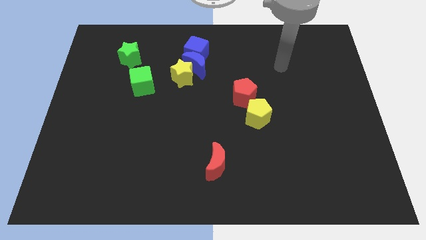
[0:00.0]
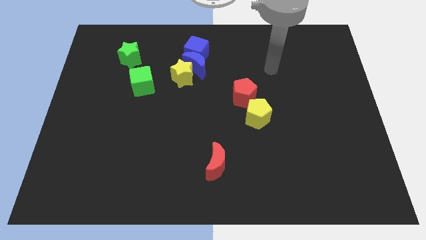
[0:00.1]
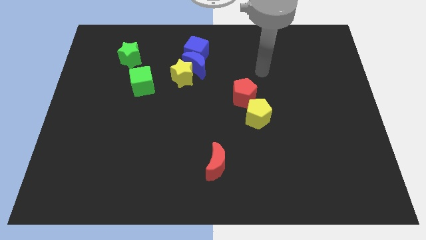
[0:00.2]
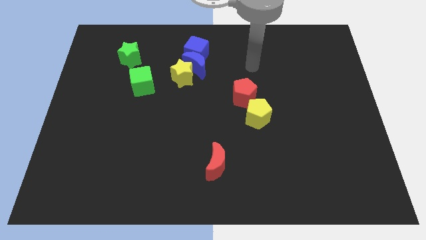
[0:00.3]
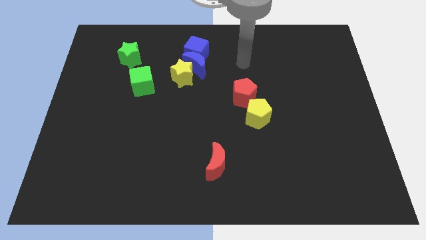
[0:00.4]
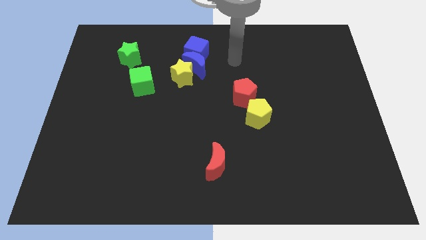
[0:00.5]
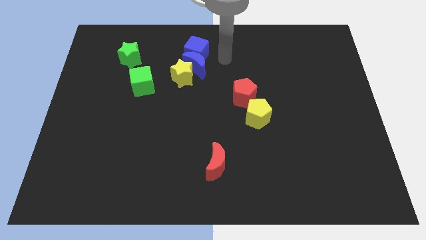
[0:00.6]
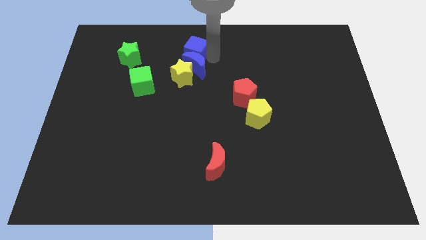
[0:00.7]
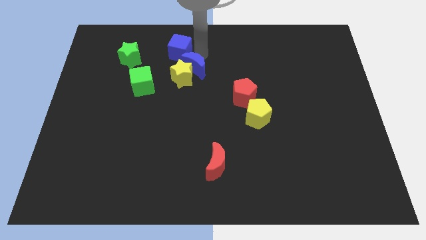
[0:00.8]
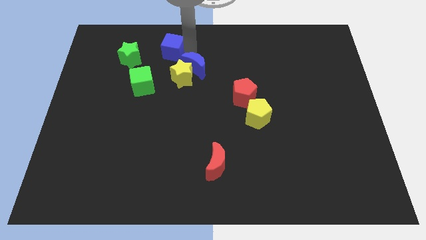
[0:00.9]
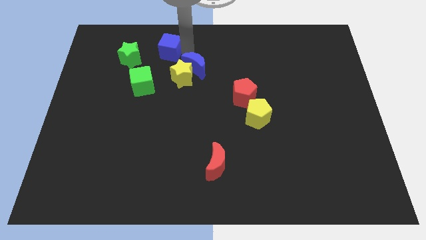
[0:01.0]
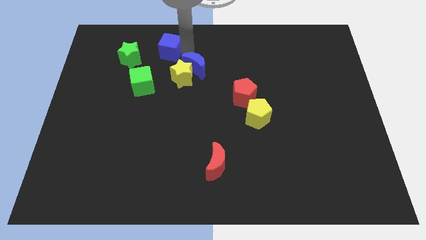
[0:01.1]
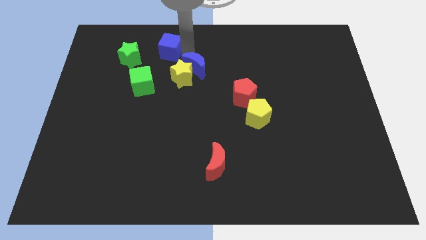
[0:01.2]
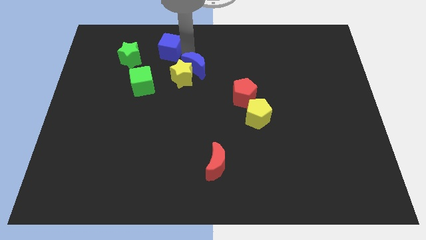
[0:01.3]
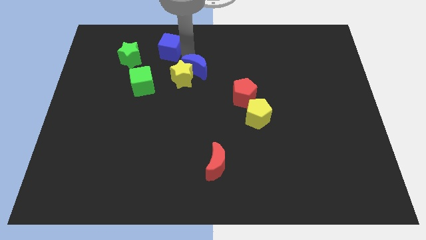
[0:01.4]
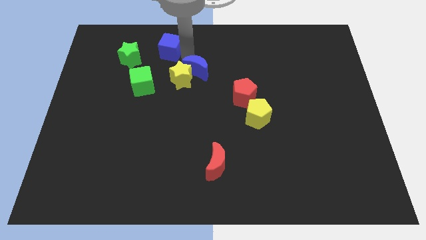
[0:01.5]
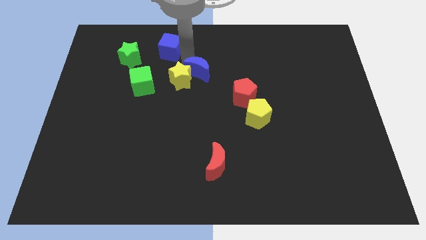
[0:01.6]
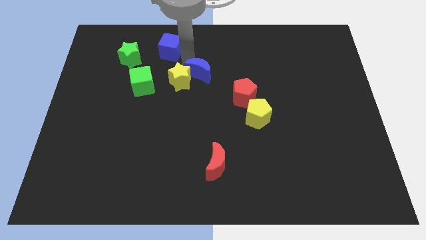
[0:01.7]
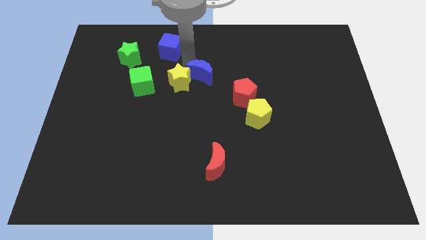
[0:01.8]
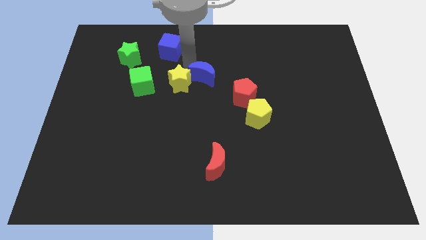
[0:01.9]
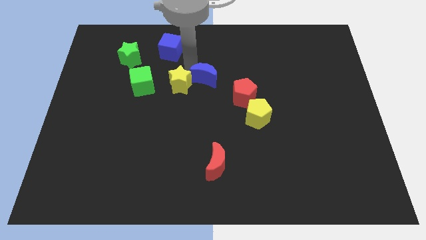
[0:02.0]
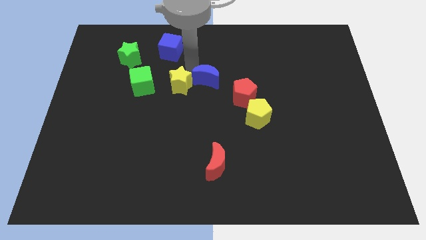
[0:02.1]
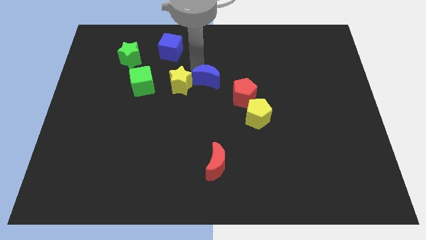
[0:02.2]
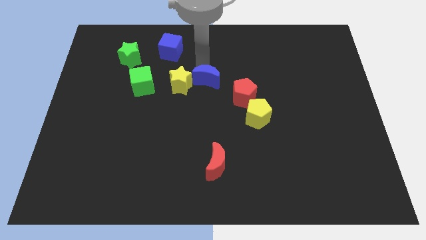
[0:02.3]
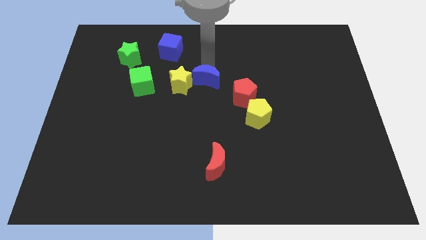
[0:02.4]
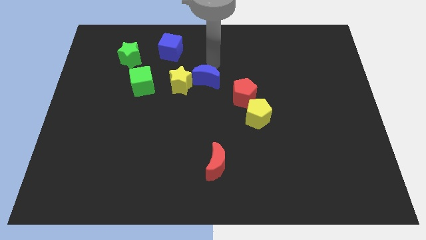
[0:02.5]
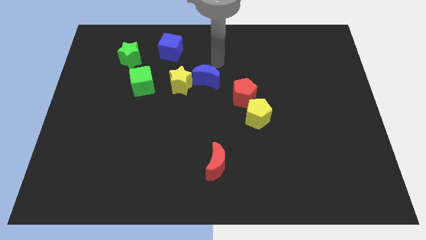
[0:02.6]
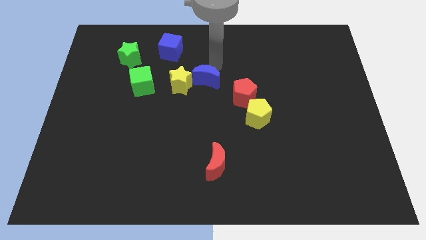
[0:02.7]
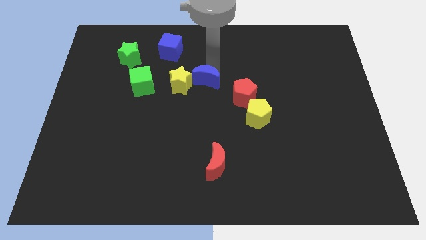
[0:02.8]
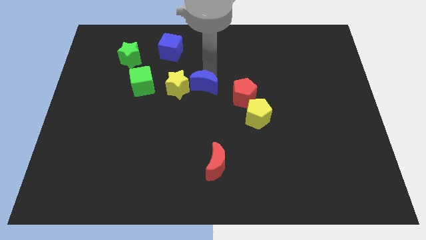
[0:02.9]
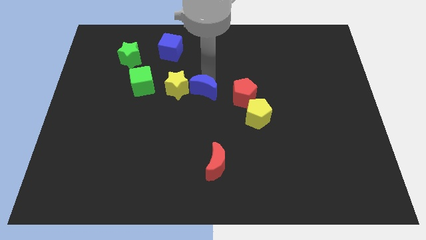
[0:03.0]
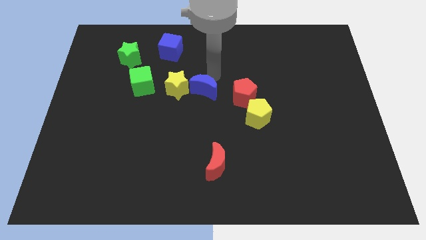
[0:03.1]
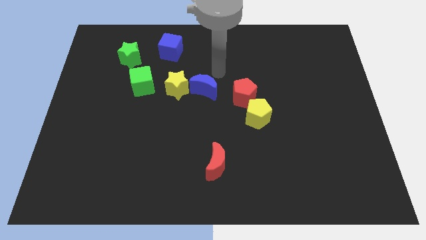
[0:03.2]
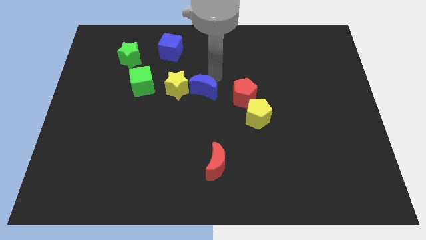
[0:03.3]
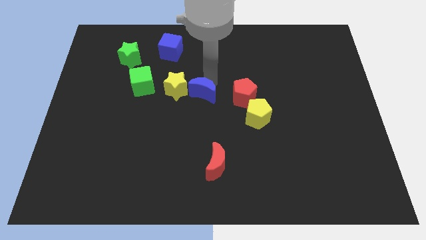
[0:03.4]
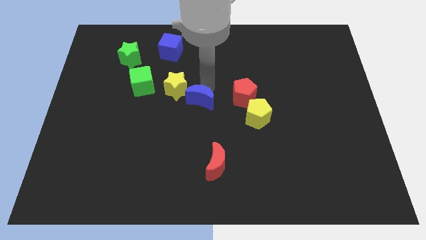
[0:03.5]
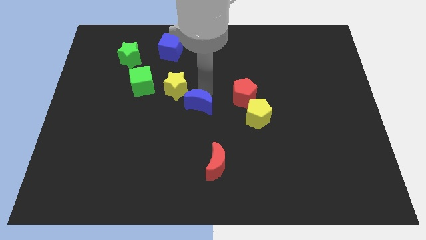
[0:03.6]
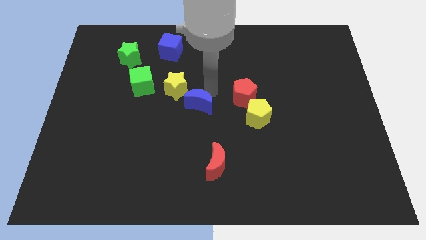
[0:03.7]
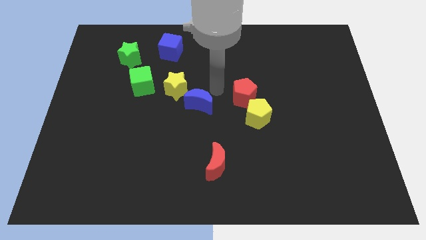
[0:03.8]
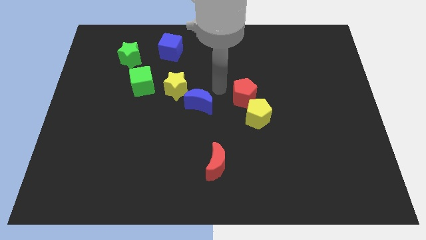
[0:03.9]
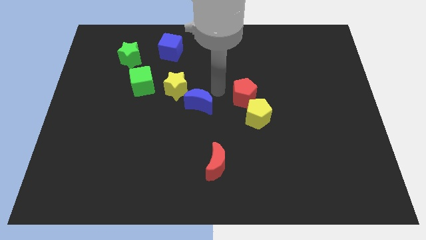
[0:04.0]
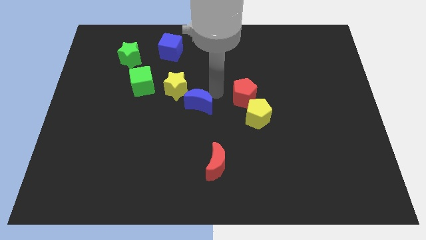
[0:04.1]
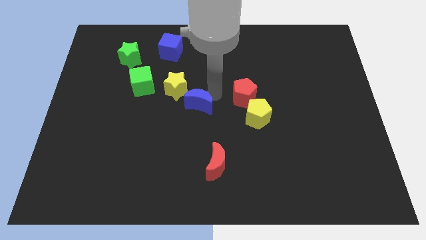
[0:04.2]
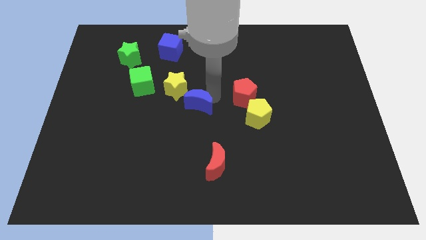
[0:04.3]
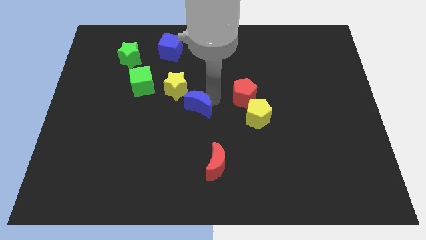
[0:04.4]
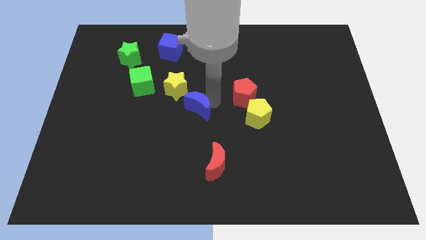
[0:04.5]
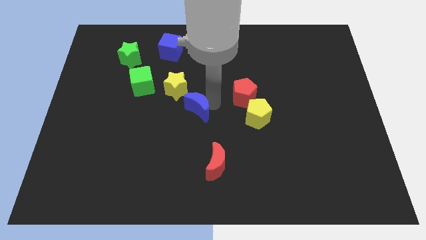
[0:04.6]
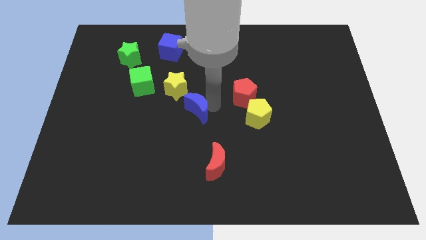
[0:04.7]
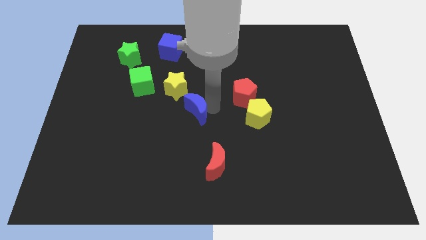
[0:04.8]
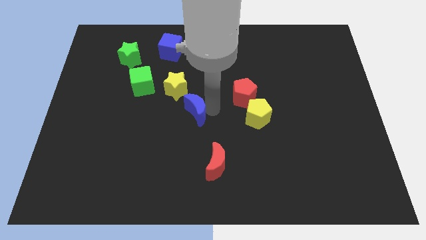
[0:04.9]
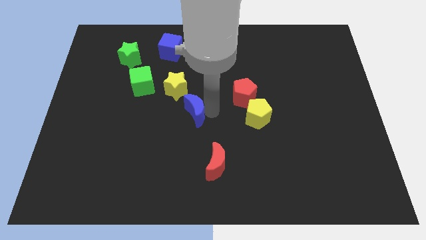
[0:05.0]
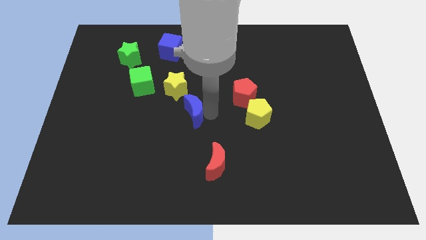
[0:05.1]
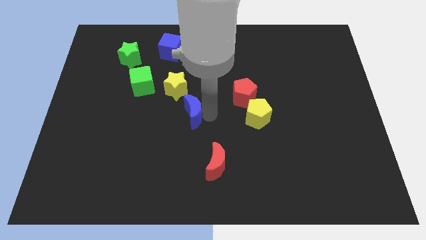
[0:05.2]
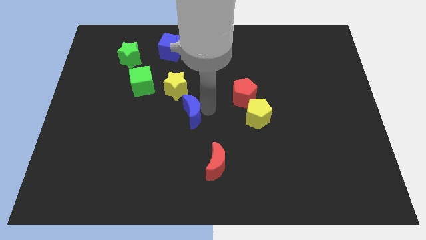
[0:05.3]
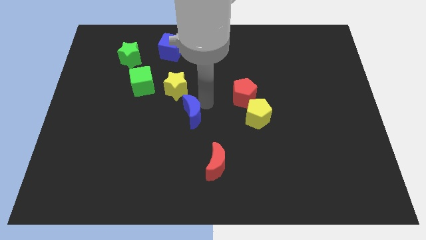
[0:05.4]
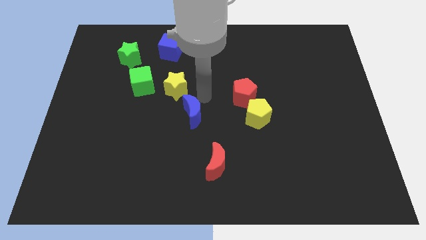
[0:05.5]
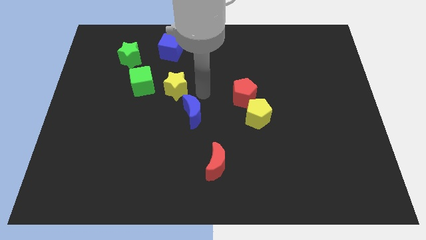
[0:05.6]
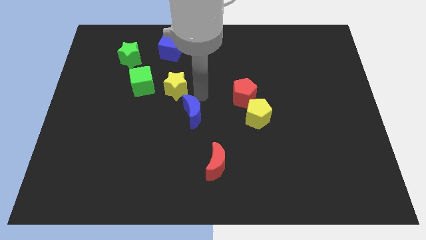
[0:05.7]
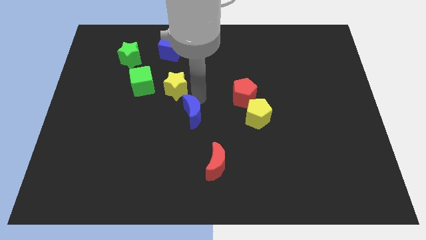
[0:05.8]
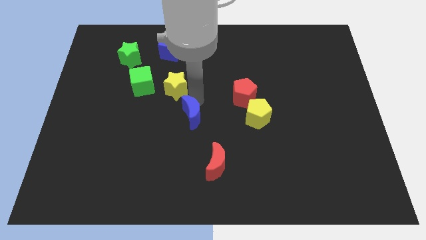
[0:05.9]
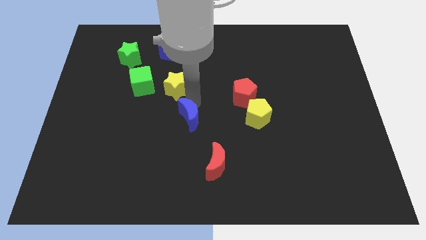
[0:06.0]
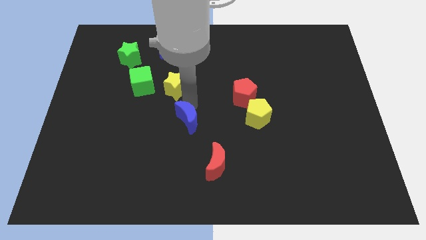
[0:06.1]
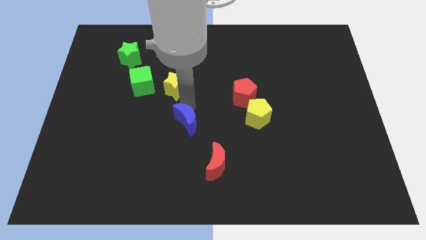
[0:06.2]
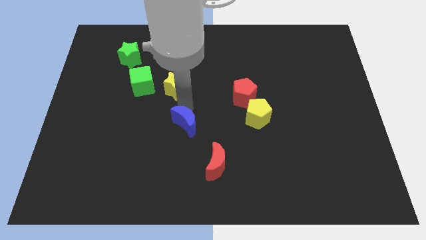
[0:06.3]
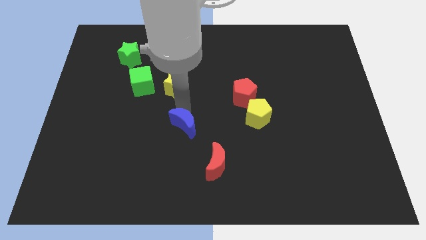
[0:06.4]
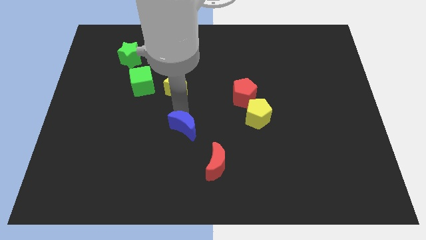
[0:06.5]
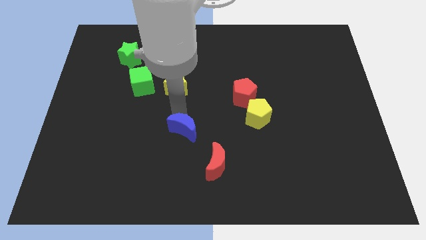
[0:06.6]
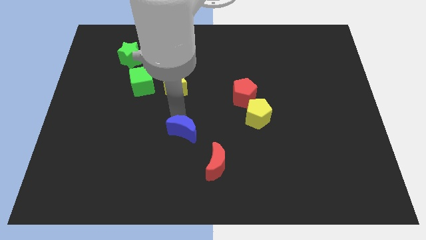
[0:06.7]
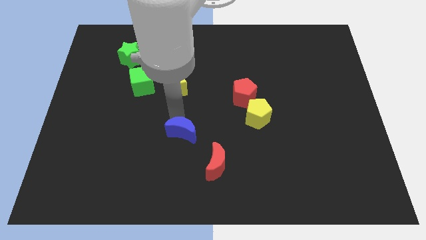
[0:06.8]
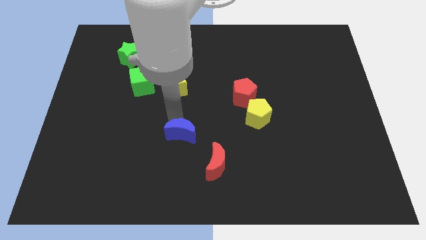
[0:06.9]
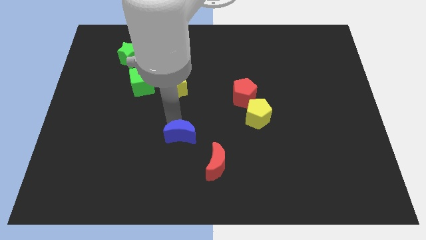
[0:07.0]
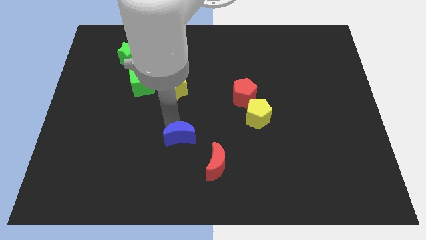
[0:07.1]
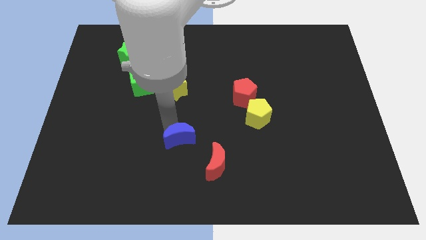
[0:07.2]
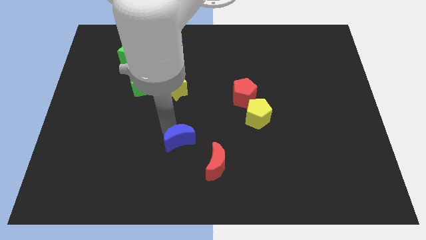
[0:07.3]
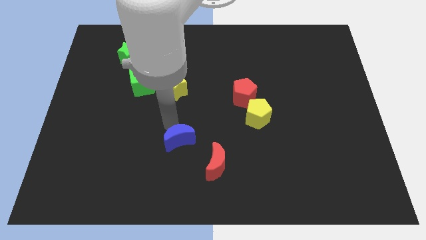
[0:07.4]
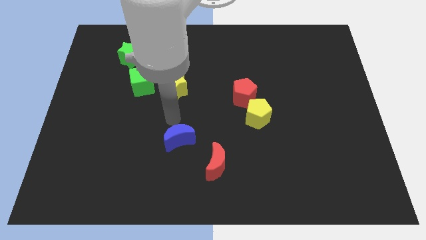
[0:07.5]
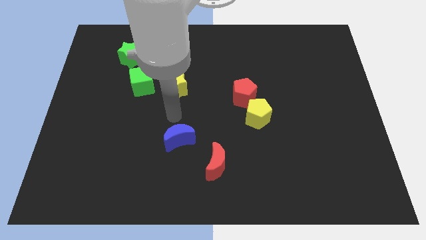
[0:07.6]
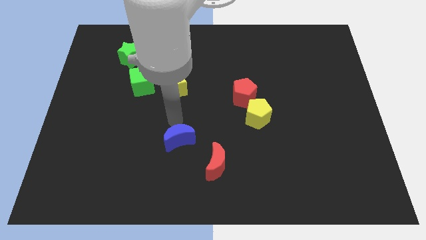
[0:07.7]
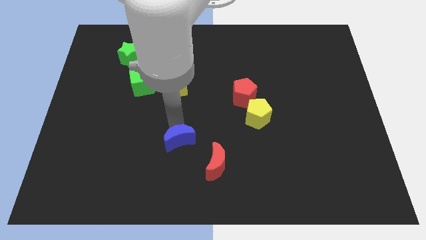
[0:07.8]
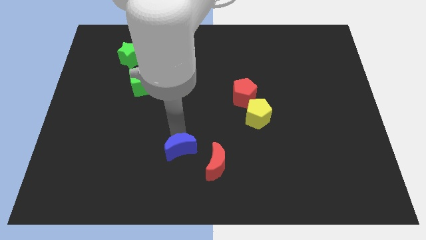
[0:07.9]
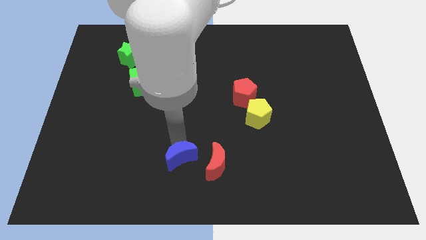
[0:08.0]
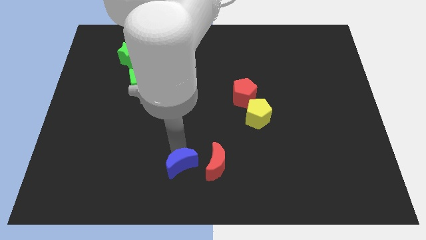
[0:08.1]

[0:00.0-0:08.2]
put the blue moon to the bottom side
